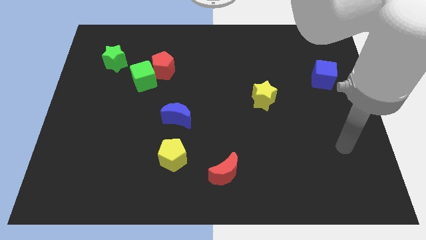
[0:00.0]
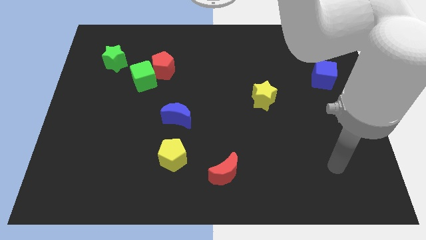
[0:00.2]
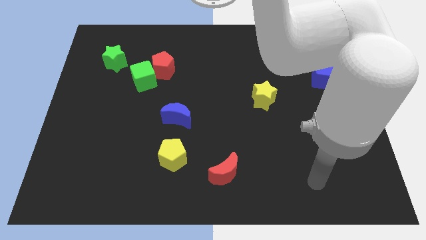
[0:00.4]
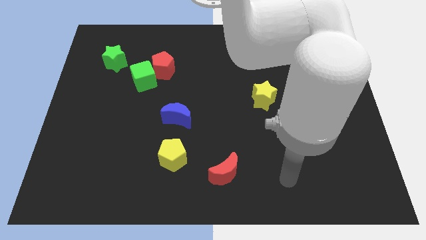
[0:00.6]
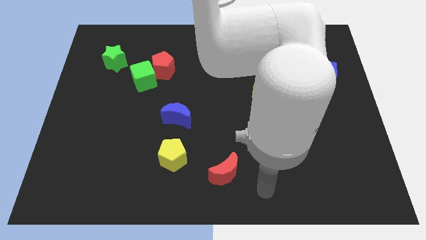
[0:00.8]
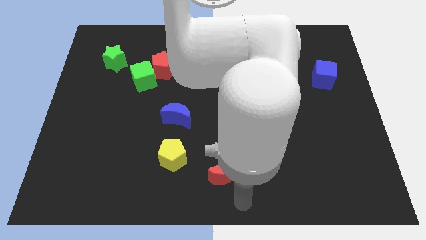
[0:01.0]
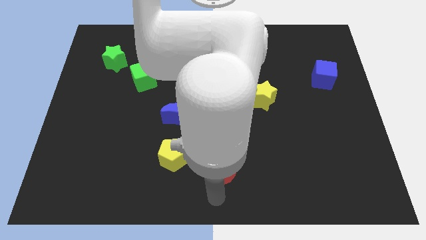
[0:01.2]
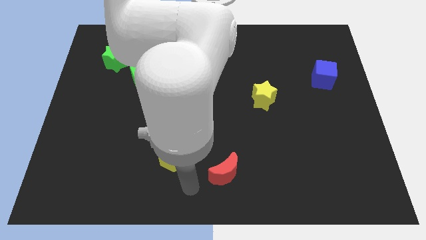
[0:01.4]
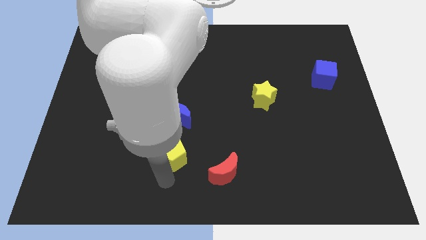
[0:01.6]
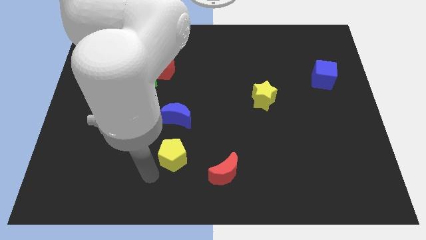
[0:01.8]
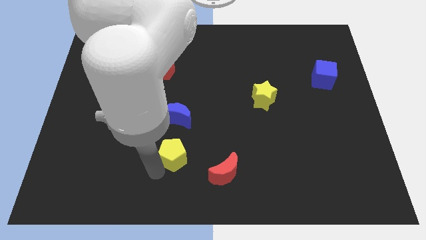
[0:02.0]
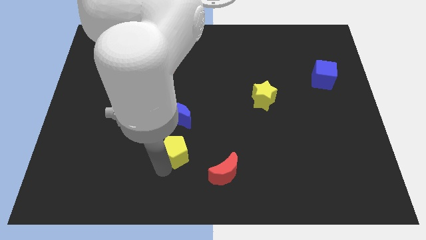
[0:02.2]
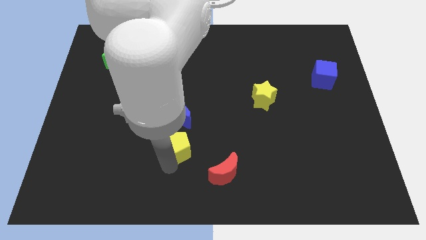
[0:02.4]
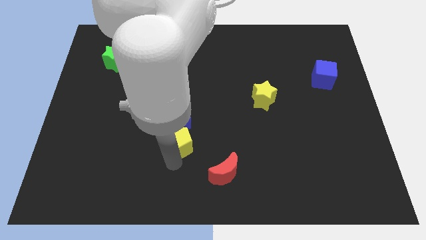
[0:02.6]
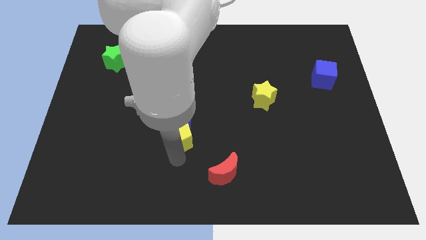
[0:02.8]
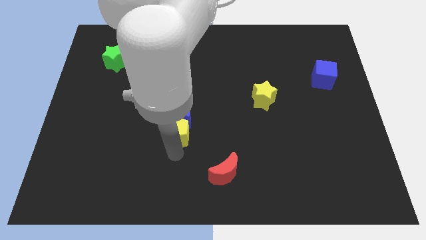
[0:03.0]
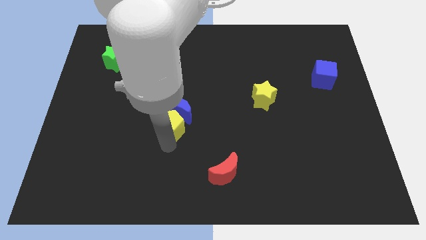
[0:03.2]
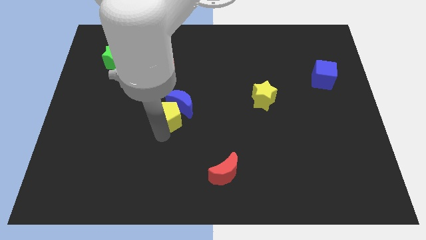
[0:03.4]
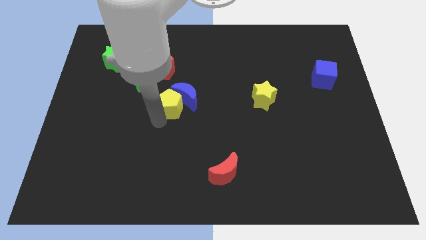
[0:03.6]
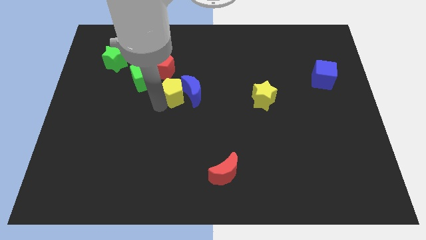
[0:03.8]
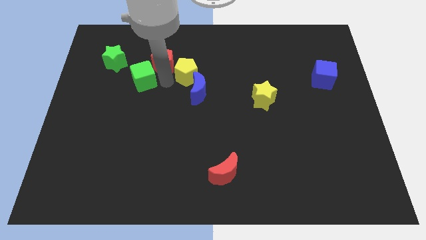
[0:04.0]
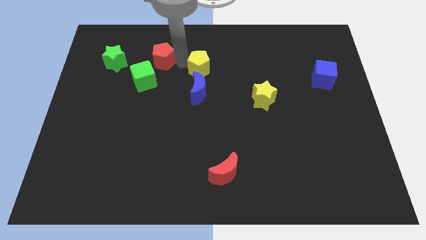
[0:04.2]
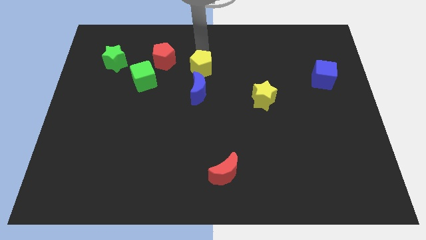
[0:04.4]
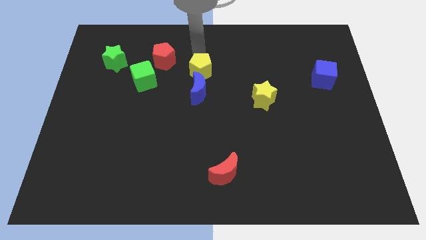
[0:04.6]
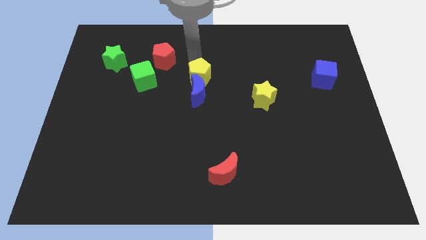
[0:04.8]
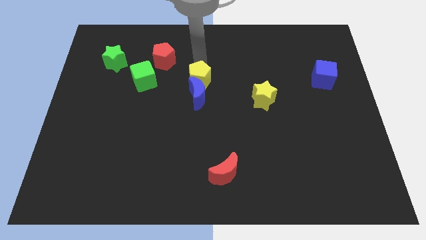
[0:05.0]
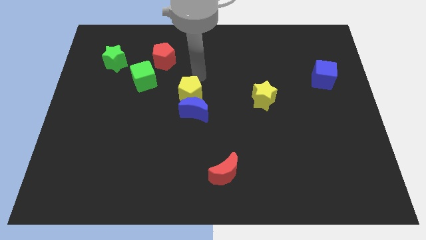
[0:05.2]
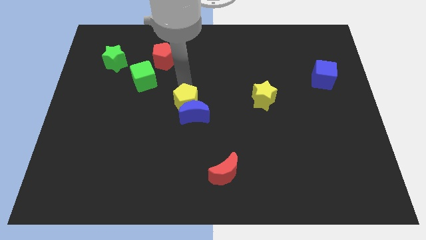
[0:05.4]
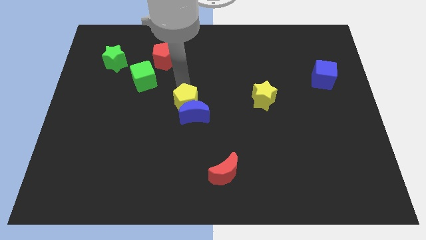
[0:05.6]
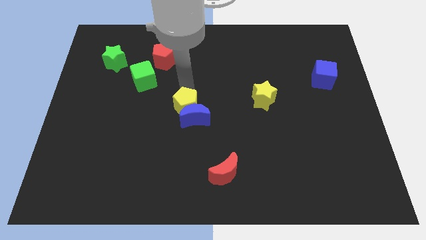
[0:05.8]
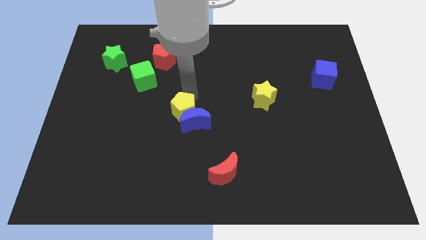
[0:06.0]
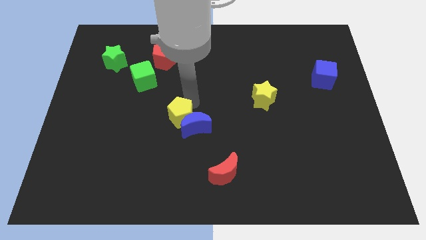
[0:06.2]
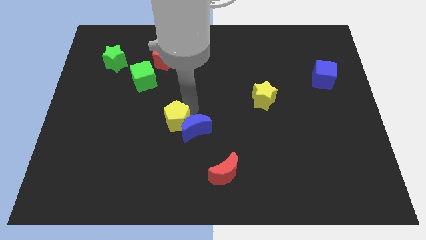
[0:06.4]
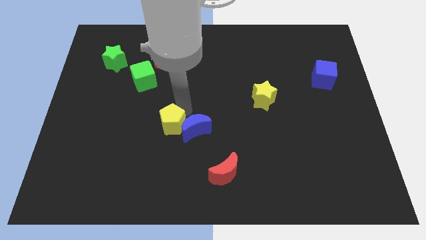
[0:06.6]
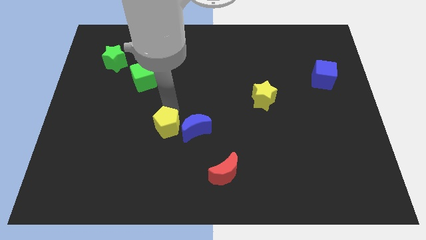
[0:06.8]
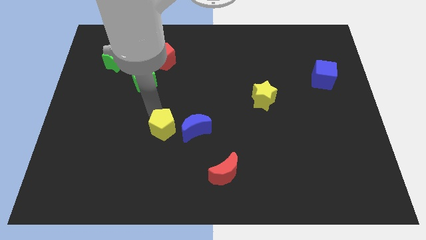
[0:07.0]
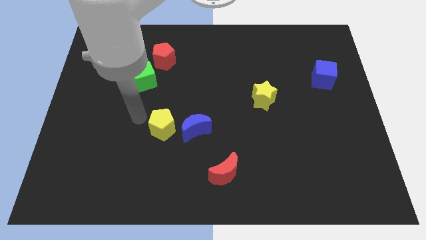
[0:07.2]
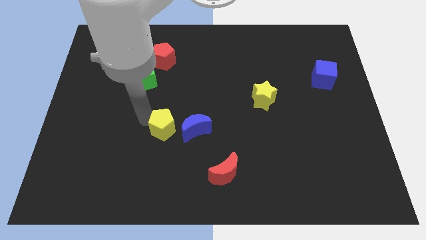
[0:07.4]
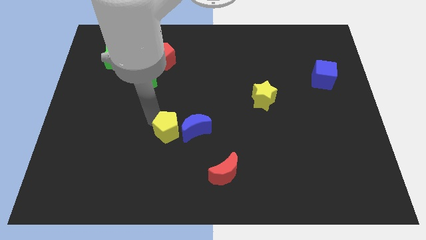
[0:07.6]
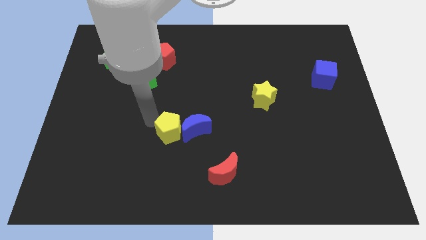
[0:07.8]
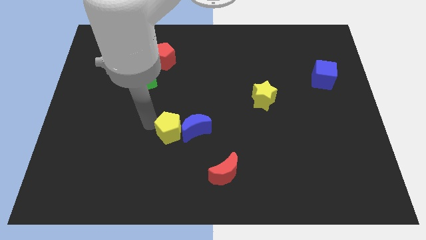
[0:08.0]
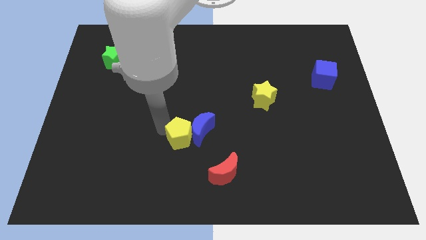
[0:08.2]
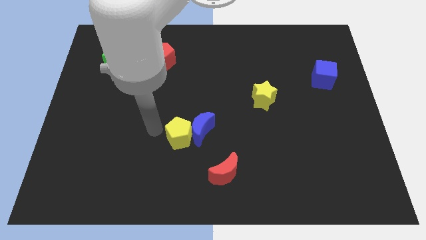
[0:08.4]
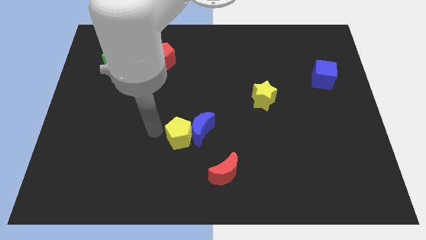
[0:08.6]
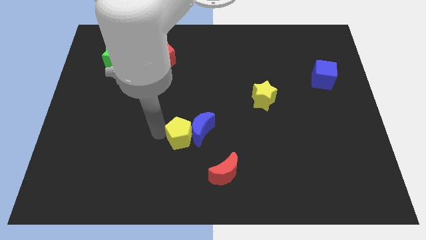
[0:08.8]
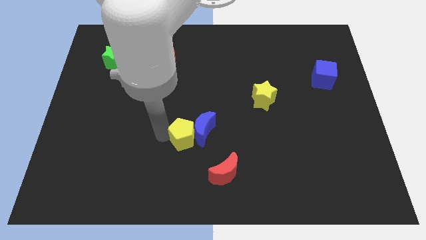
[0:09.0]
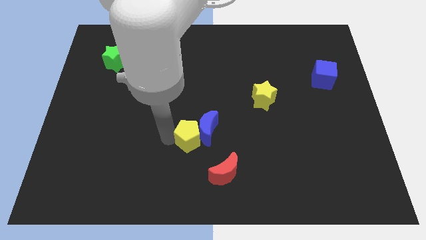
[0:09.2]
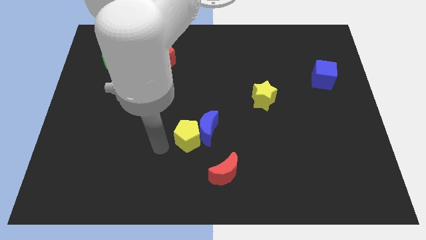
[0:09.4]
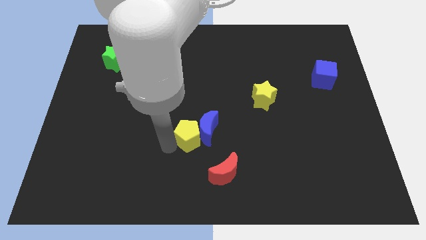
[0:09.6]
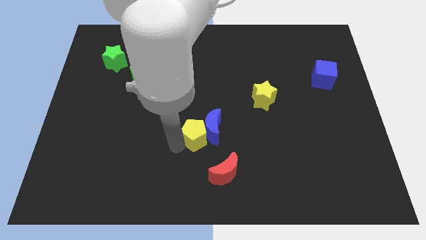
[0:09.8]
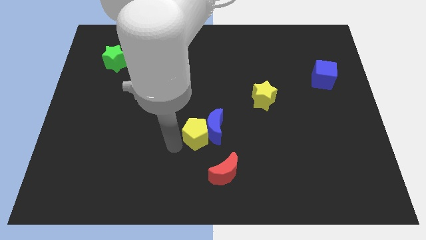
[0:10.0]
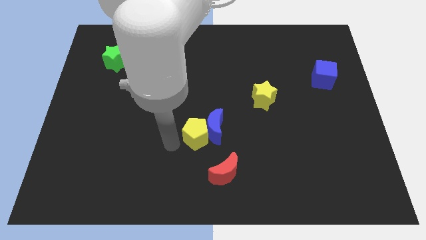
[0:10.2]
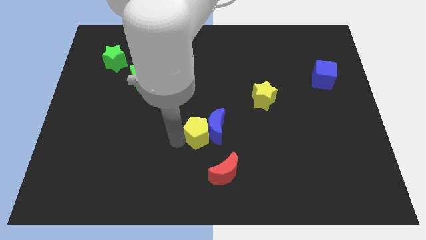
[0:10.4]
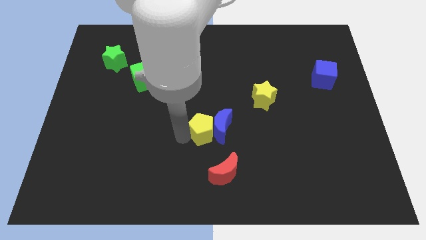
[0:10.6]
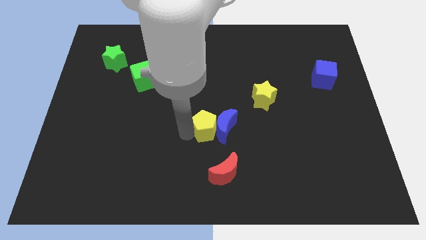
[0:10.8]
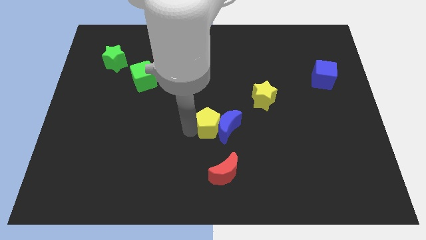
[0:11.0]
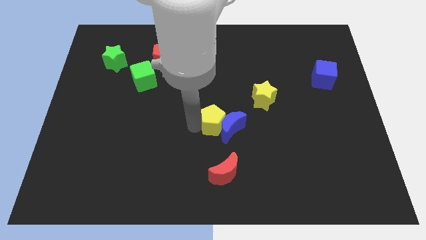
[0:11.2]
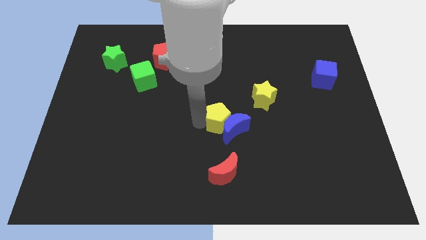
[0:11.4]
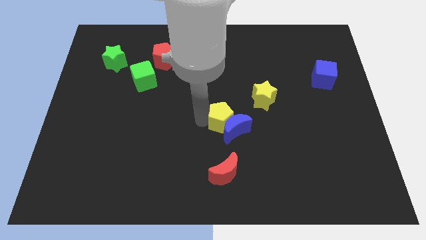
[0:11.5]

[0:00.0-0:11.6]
put the yellow pentagon to the bottom left side of the yellow star
